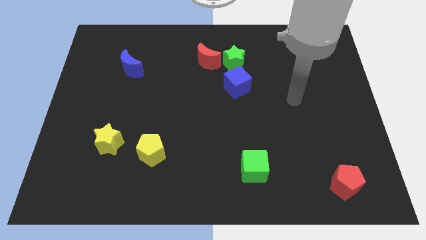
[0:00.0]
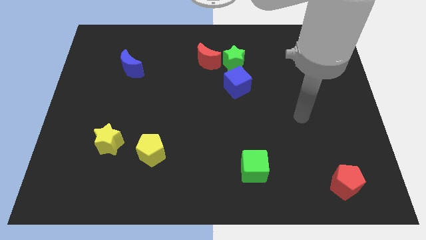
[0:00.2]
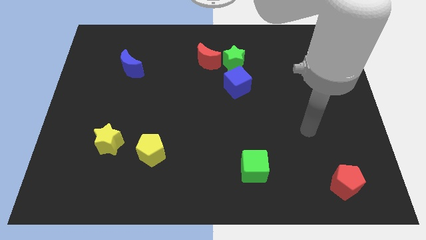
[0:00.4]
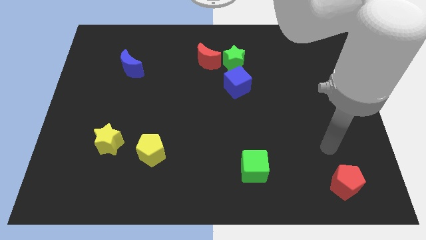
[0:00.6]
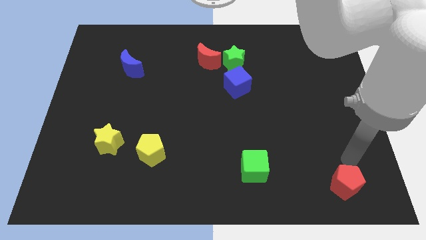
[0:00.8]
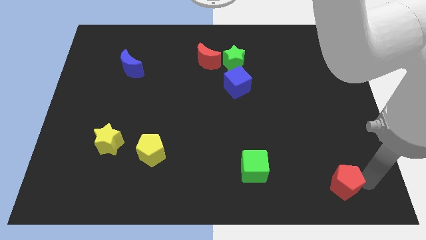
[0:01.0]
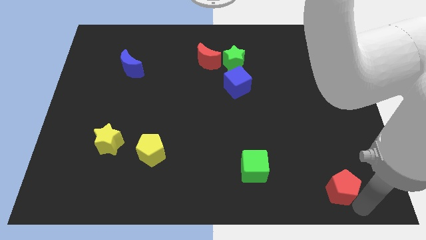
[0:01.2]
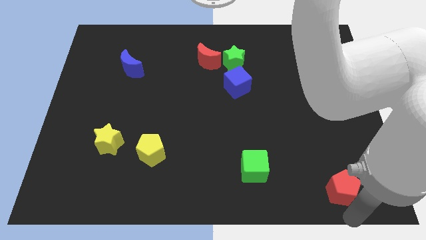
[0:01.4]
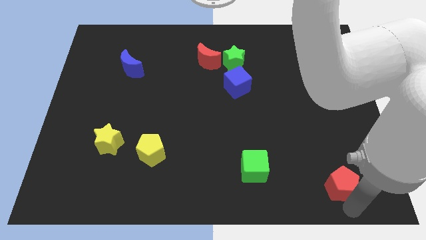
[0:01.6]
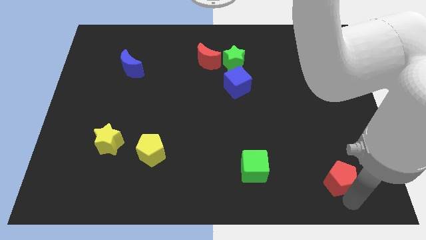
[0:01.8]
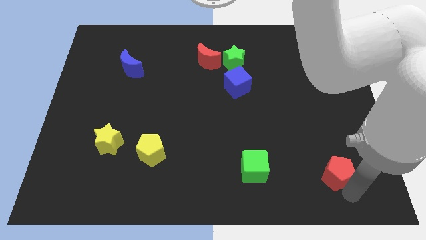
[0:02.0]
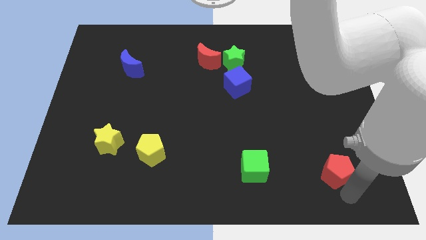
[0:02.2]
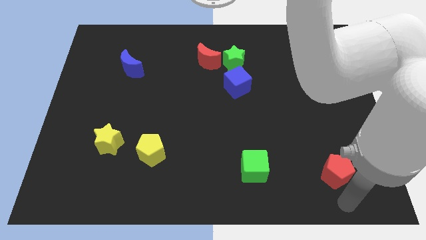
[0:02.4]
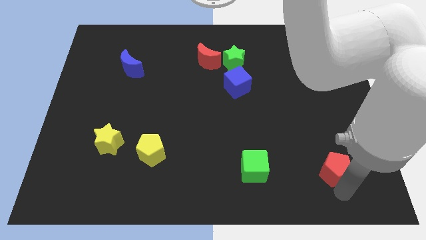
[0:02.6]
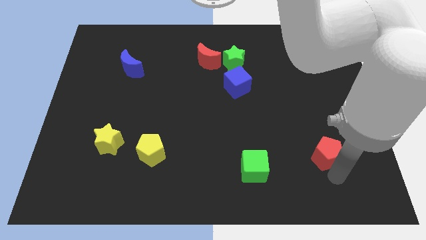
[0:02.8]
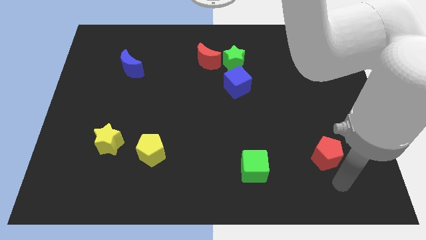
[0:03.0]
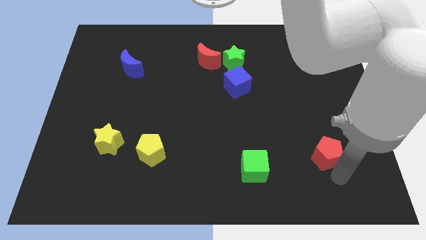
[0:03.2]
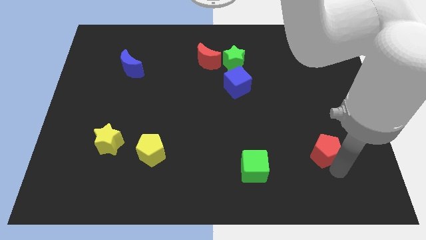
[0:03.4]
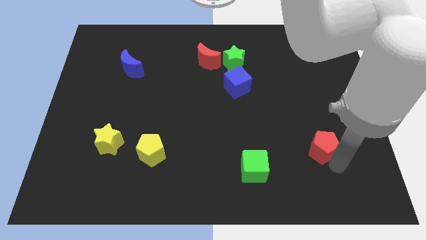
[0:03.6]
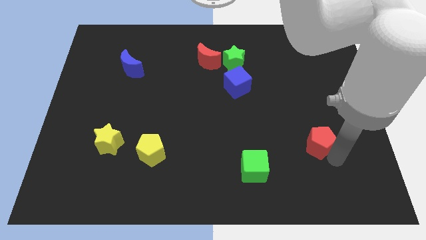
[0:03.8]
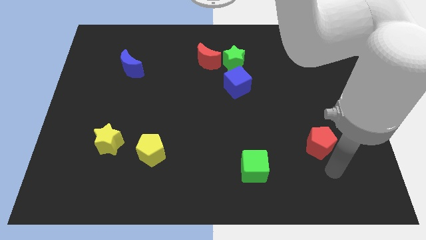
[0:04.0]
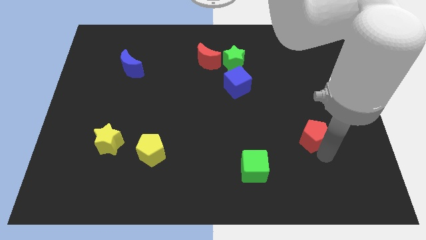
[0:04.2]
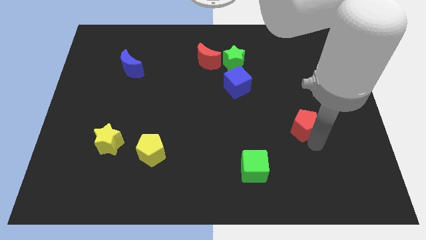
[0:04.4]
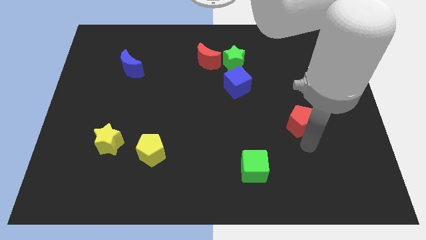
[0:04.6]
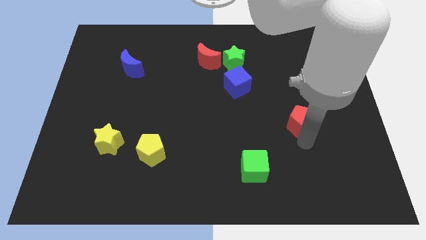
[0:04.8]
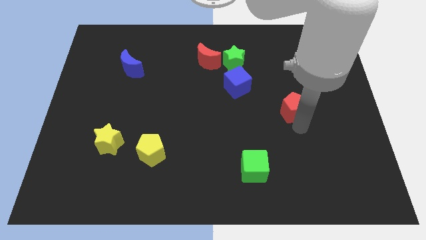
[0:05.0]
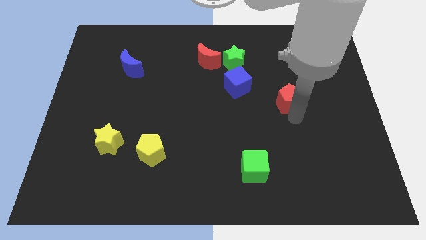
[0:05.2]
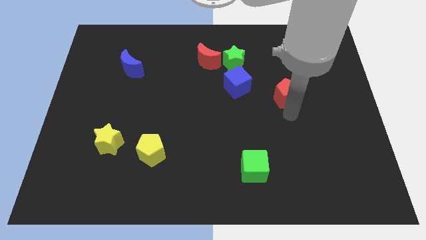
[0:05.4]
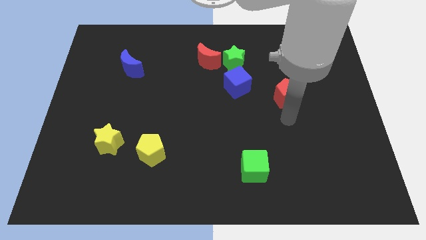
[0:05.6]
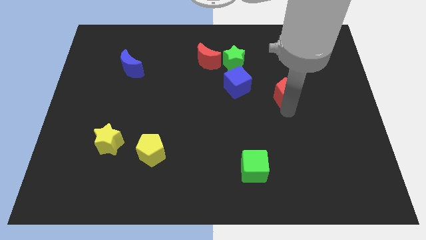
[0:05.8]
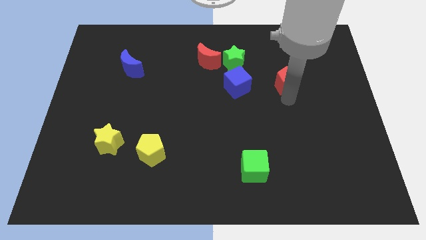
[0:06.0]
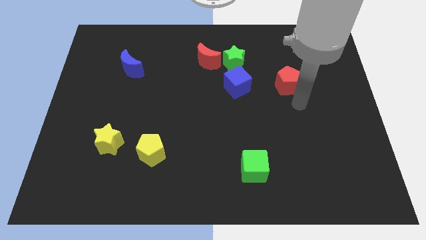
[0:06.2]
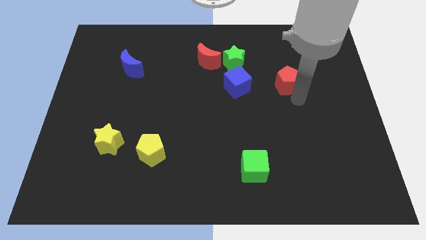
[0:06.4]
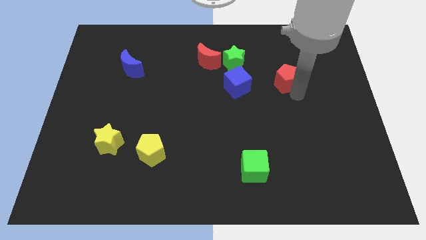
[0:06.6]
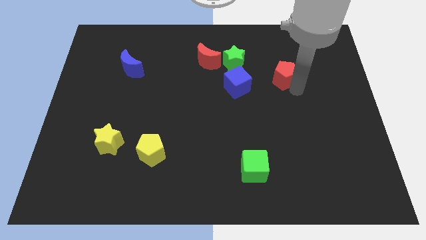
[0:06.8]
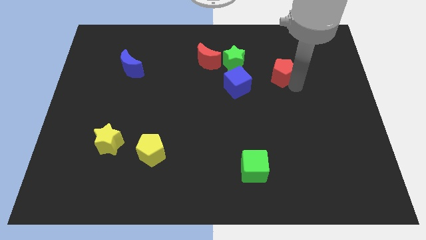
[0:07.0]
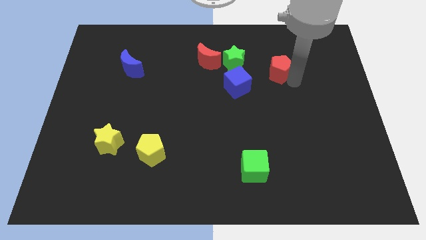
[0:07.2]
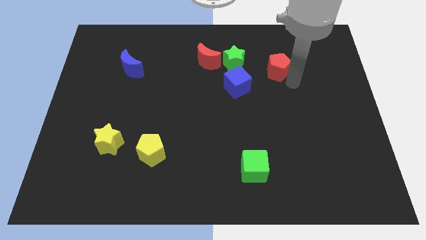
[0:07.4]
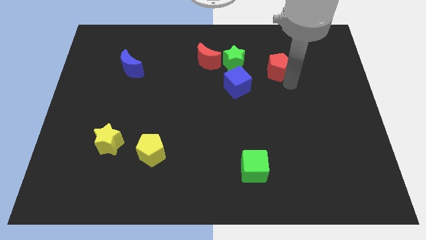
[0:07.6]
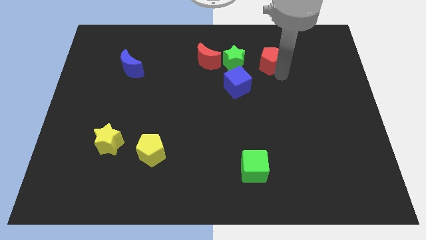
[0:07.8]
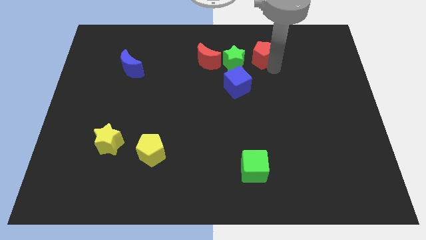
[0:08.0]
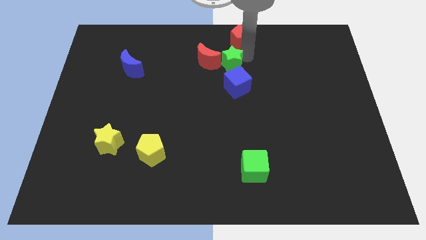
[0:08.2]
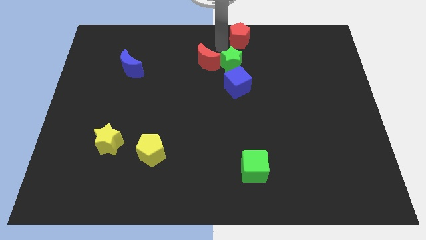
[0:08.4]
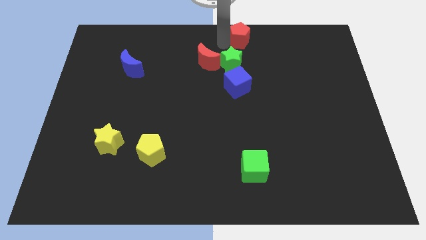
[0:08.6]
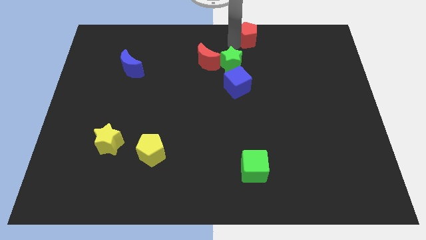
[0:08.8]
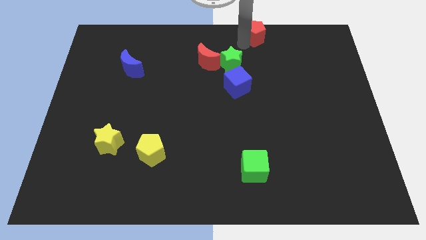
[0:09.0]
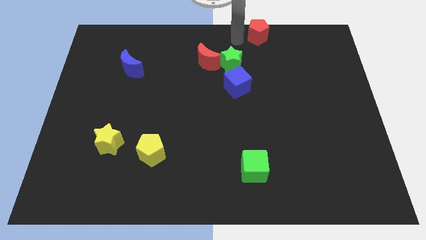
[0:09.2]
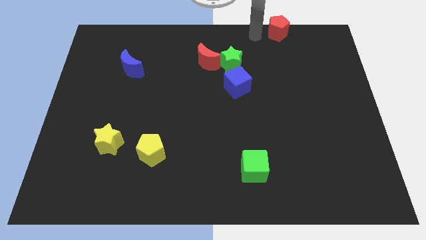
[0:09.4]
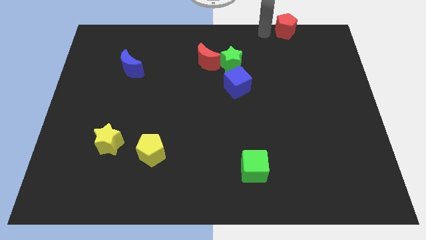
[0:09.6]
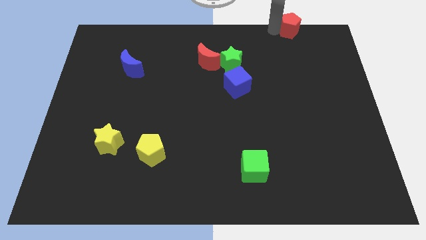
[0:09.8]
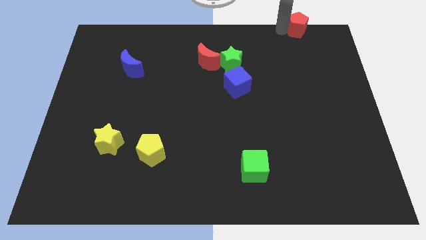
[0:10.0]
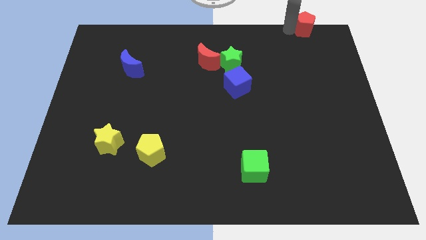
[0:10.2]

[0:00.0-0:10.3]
slide the red pentagon to the top right corner
